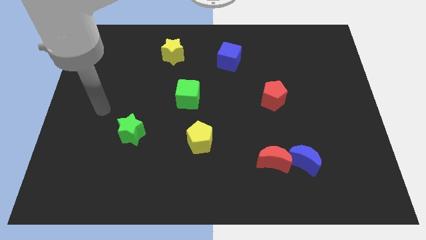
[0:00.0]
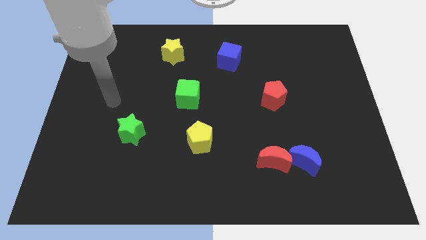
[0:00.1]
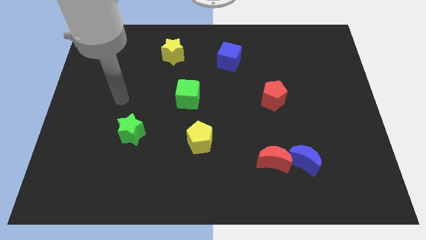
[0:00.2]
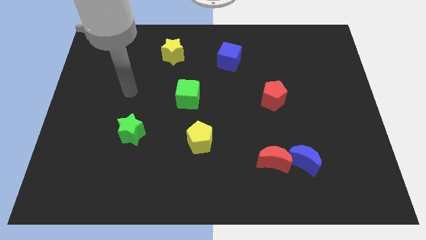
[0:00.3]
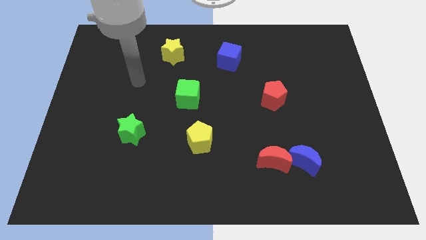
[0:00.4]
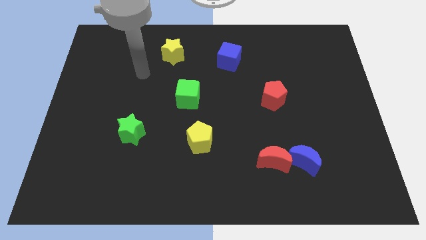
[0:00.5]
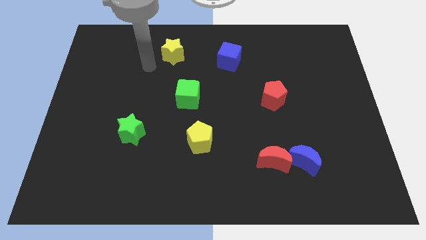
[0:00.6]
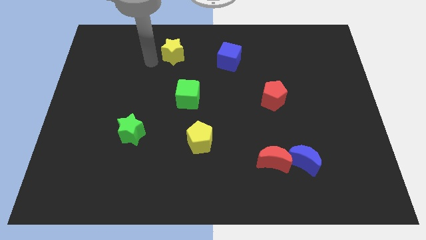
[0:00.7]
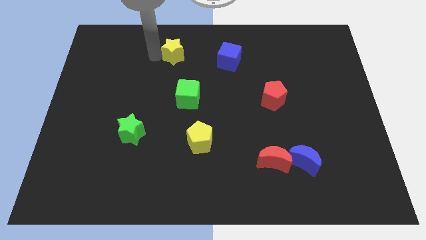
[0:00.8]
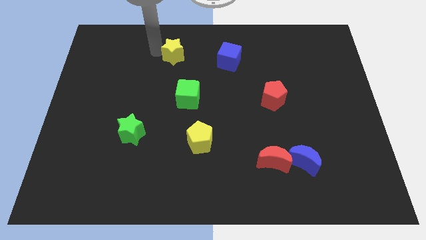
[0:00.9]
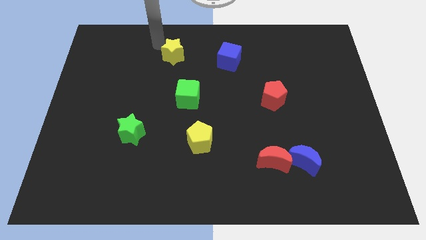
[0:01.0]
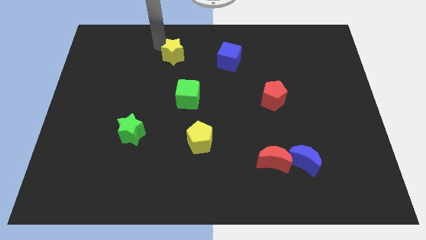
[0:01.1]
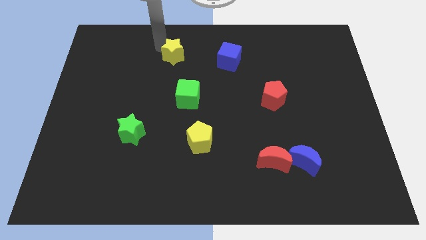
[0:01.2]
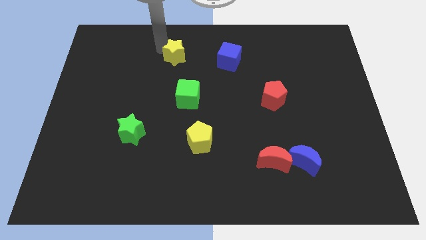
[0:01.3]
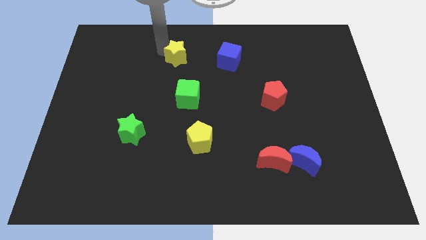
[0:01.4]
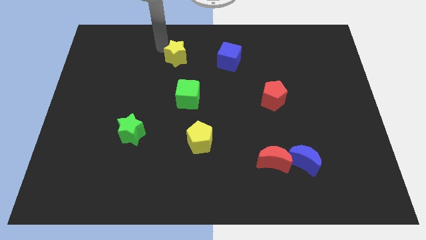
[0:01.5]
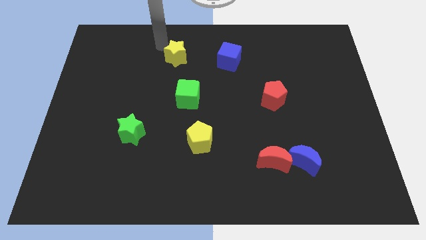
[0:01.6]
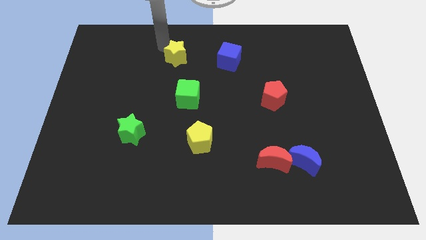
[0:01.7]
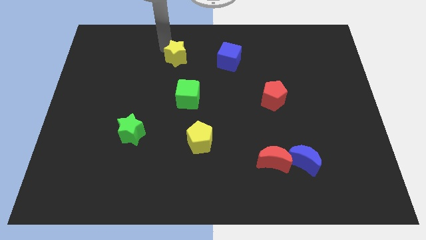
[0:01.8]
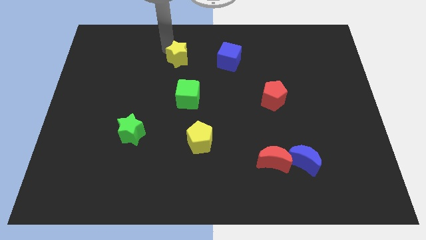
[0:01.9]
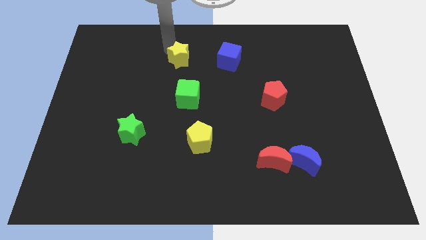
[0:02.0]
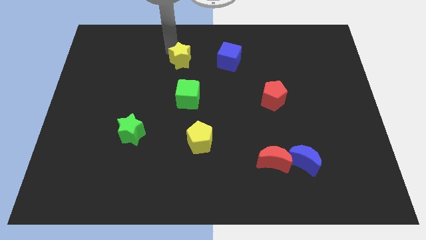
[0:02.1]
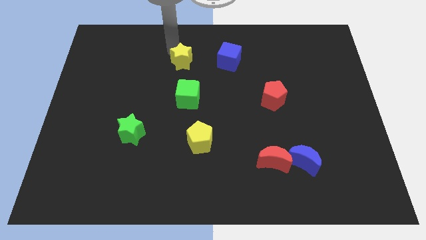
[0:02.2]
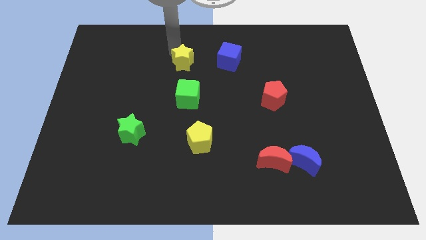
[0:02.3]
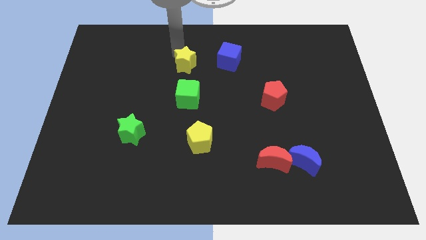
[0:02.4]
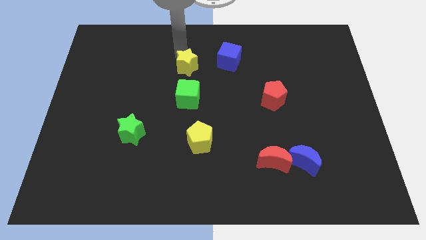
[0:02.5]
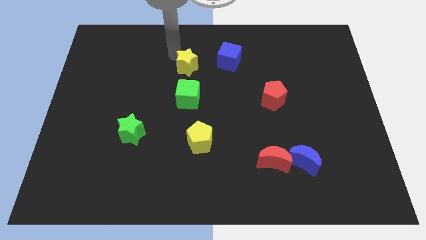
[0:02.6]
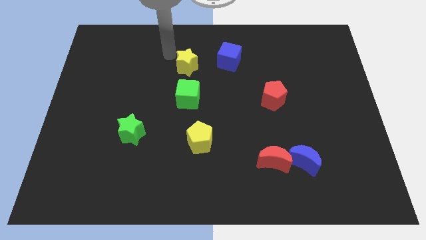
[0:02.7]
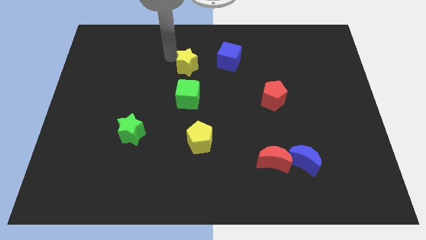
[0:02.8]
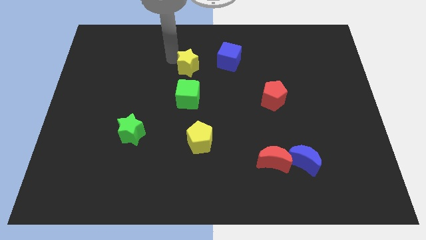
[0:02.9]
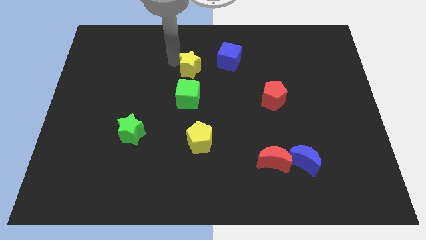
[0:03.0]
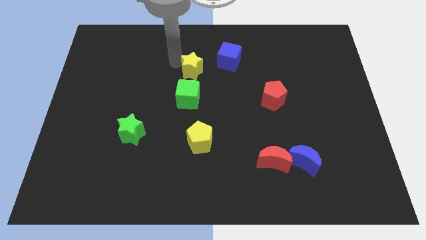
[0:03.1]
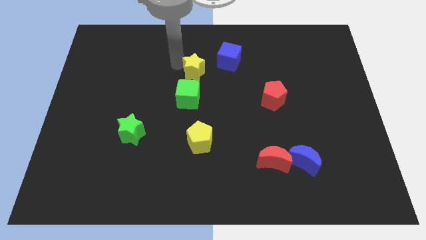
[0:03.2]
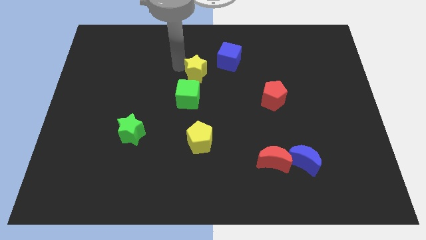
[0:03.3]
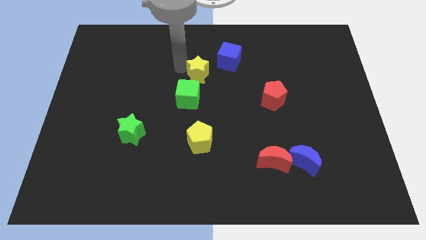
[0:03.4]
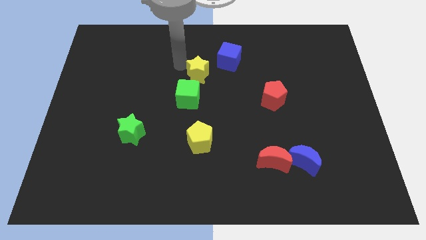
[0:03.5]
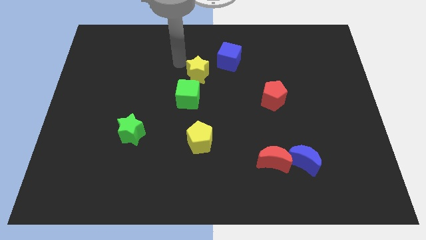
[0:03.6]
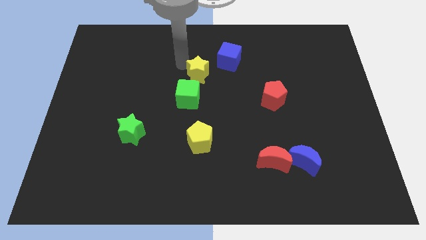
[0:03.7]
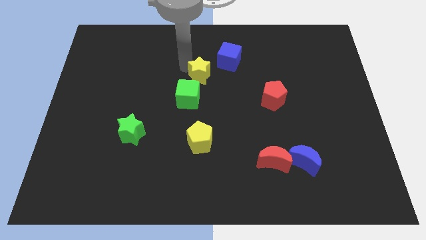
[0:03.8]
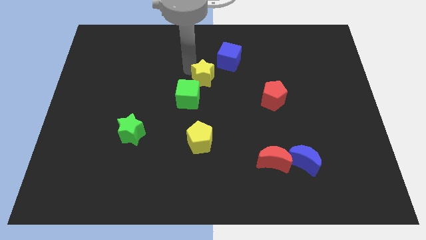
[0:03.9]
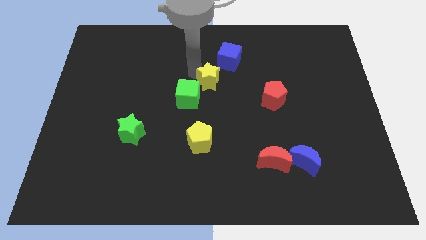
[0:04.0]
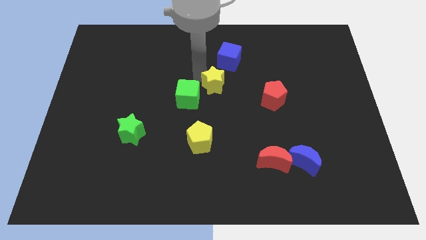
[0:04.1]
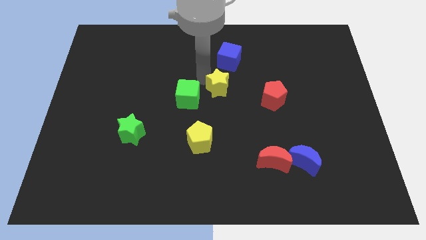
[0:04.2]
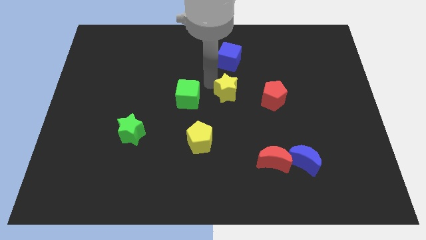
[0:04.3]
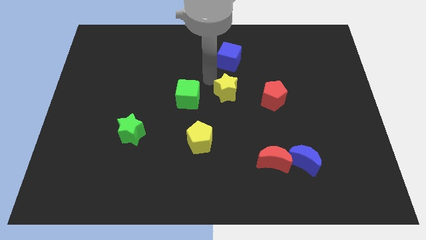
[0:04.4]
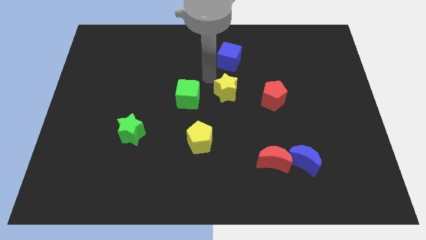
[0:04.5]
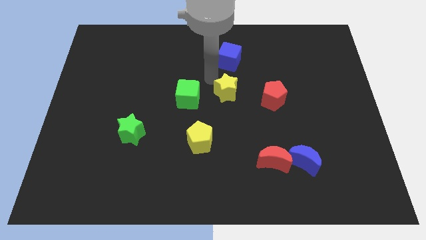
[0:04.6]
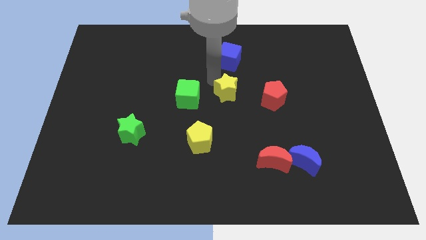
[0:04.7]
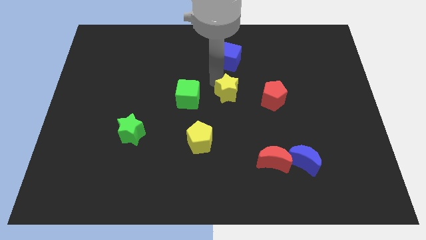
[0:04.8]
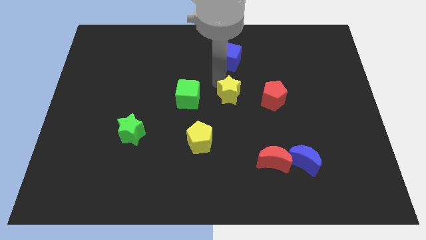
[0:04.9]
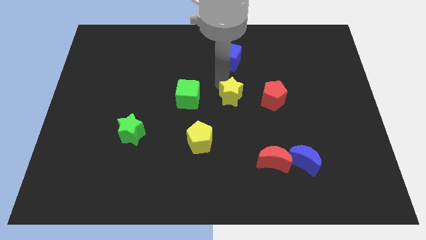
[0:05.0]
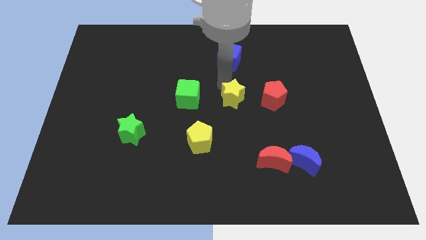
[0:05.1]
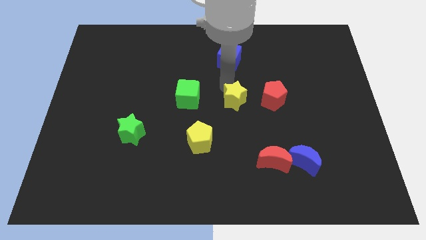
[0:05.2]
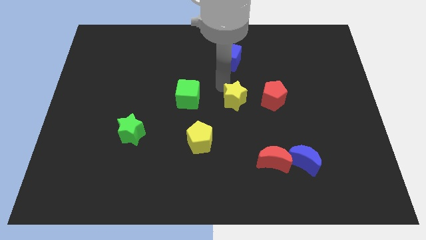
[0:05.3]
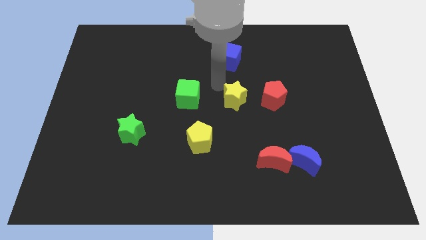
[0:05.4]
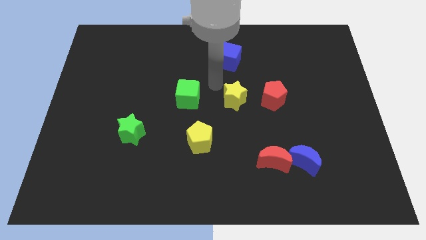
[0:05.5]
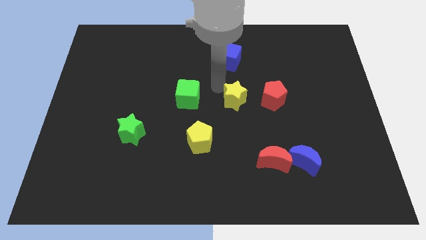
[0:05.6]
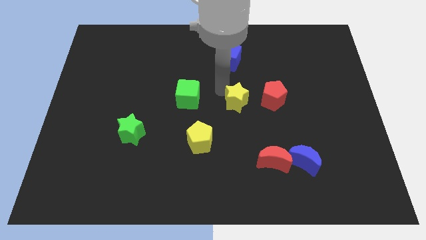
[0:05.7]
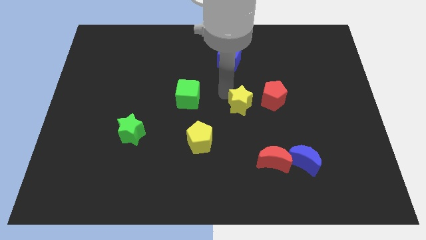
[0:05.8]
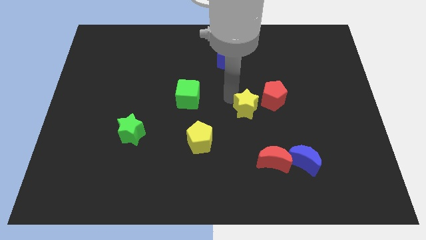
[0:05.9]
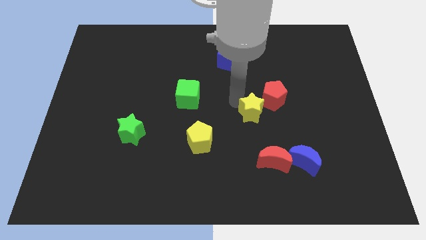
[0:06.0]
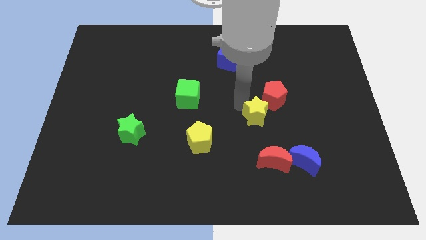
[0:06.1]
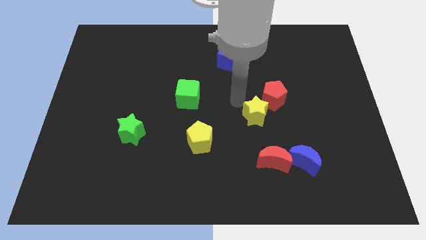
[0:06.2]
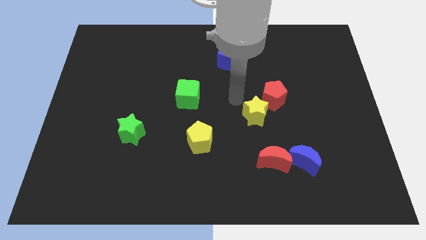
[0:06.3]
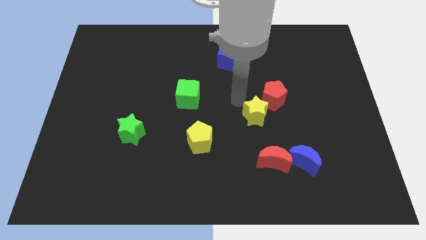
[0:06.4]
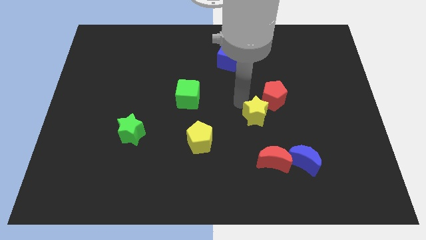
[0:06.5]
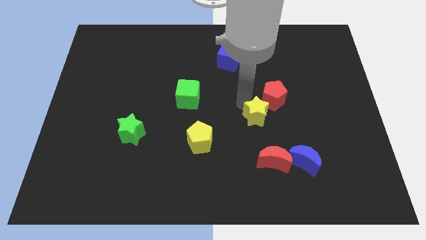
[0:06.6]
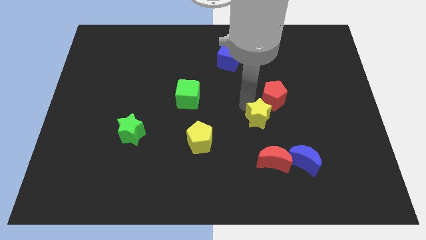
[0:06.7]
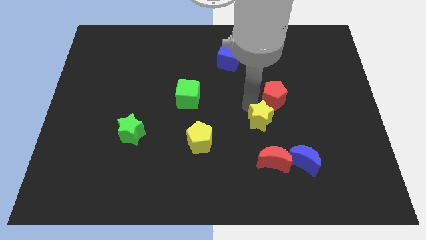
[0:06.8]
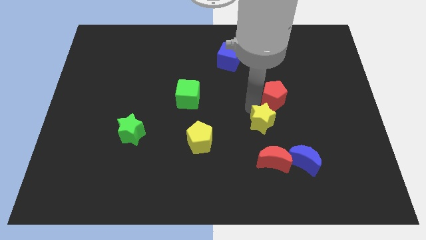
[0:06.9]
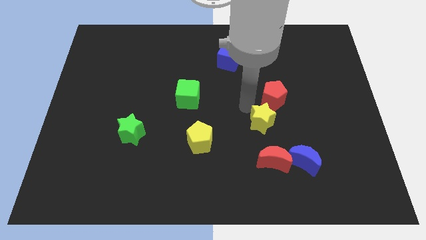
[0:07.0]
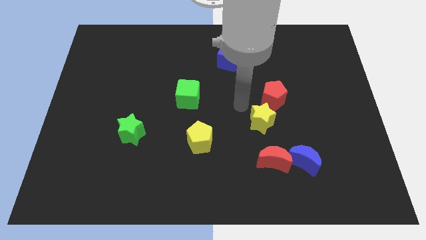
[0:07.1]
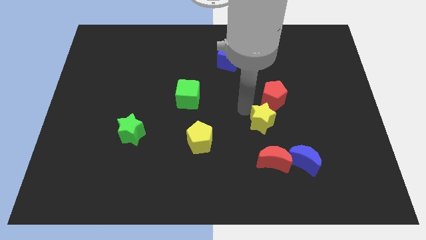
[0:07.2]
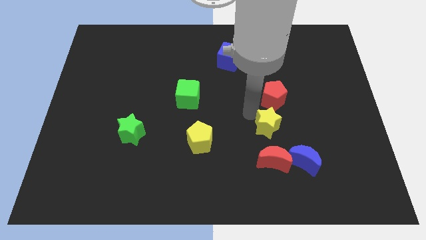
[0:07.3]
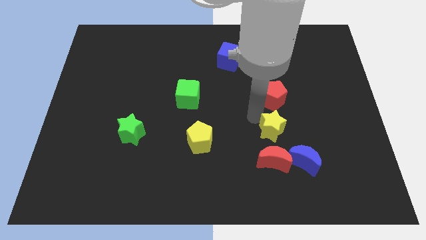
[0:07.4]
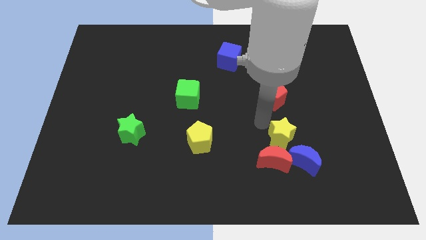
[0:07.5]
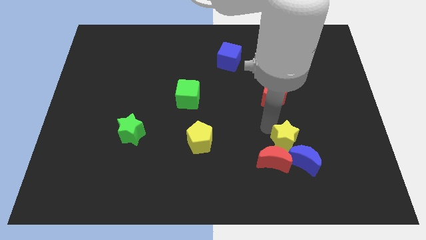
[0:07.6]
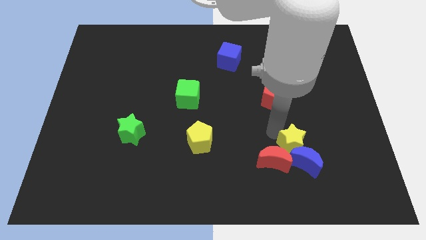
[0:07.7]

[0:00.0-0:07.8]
slide the yellow star close to the blue moon
